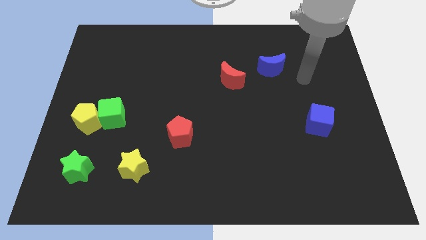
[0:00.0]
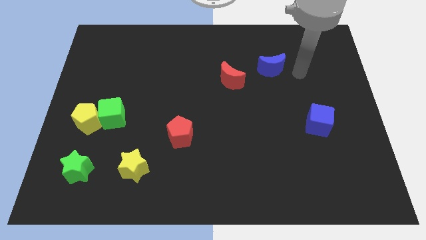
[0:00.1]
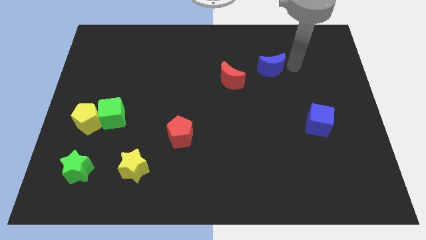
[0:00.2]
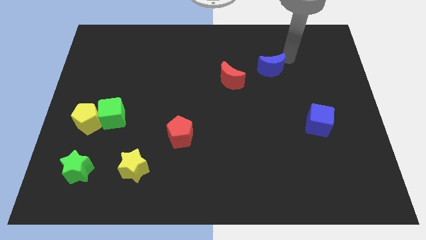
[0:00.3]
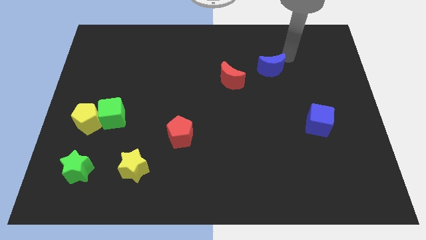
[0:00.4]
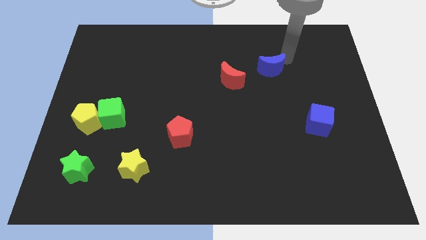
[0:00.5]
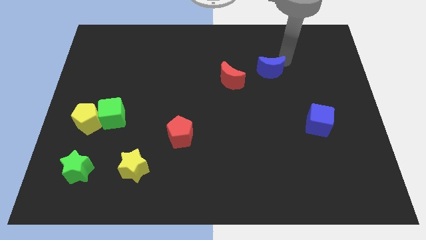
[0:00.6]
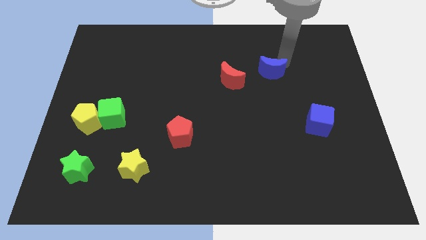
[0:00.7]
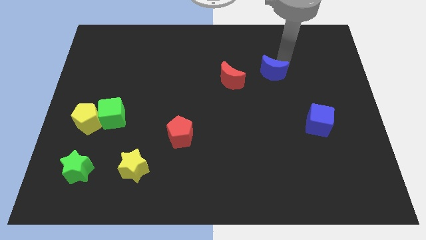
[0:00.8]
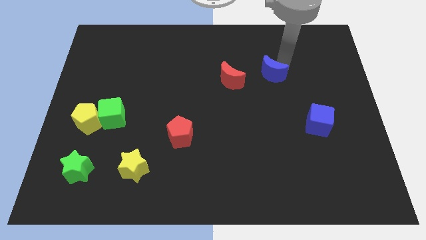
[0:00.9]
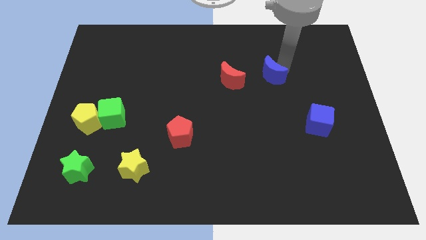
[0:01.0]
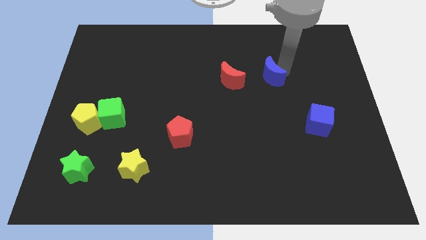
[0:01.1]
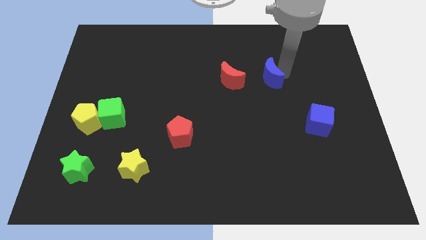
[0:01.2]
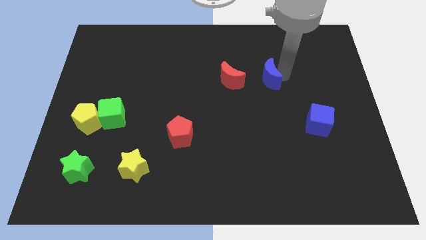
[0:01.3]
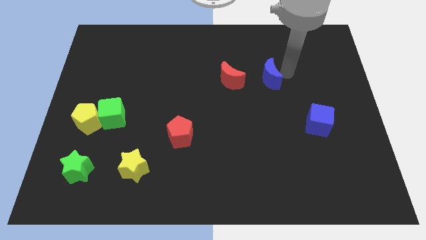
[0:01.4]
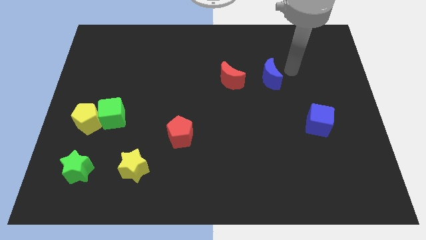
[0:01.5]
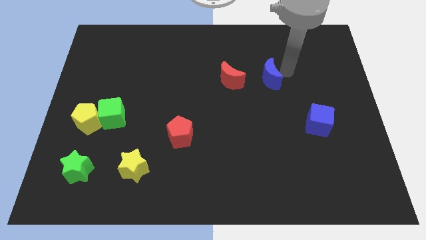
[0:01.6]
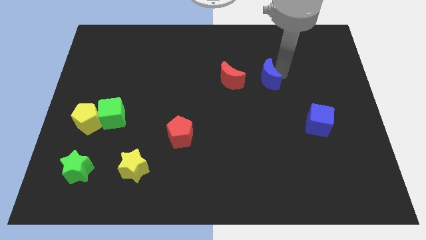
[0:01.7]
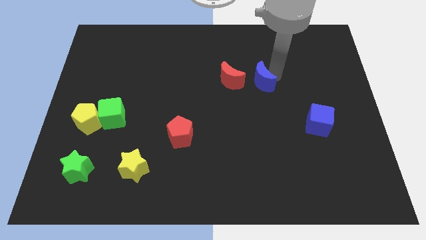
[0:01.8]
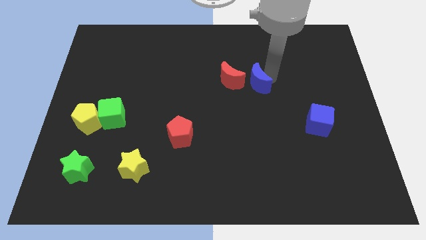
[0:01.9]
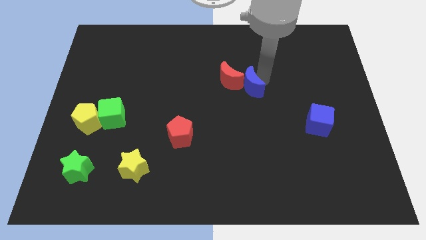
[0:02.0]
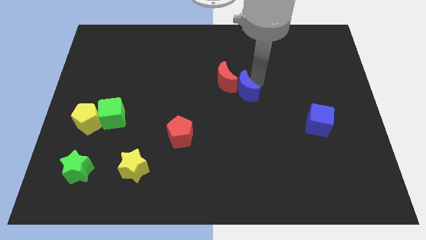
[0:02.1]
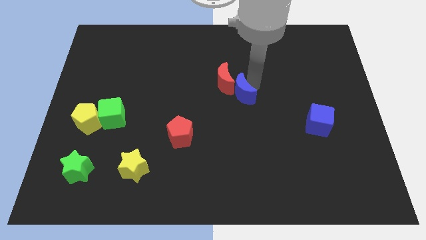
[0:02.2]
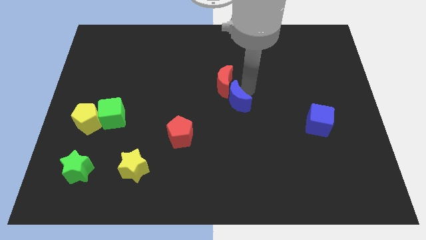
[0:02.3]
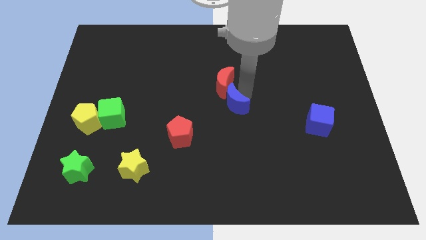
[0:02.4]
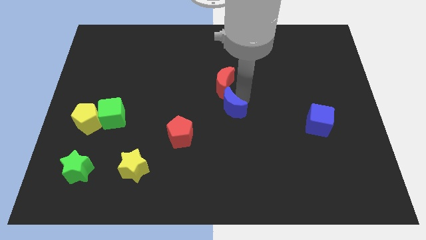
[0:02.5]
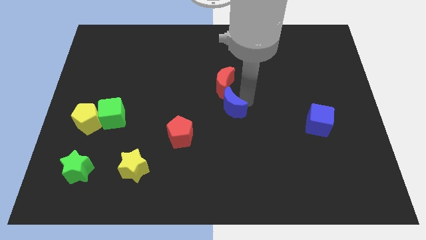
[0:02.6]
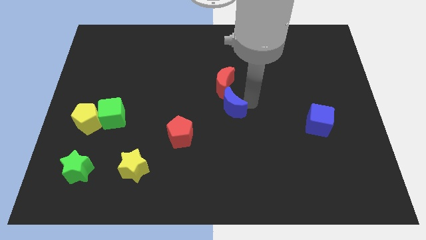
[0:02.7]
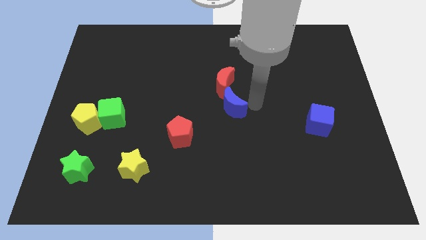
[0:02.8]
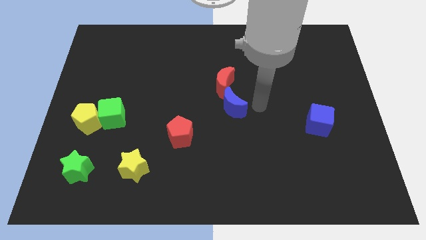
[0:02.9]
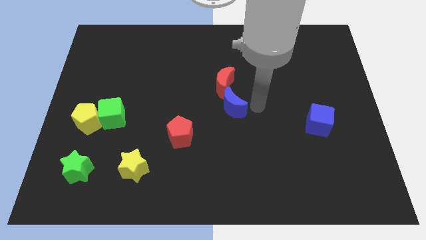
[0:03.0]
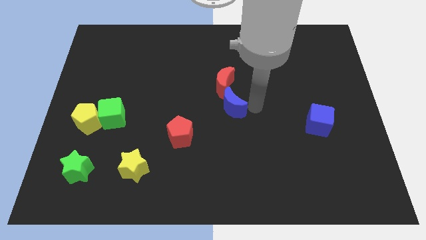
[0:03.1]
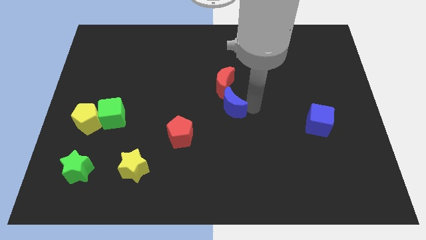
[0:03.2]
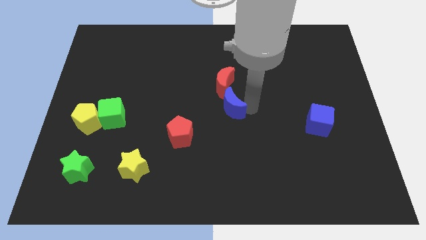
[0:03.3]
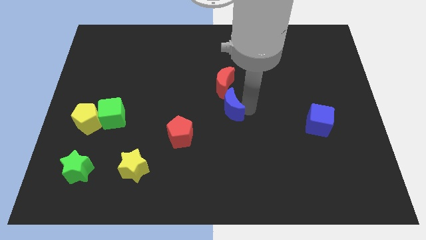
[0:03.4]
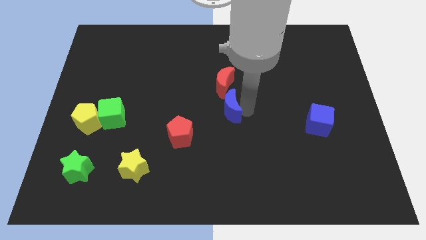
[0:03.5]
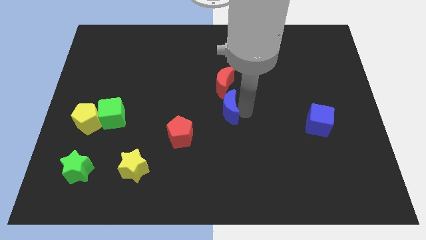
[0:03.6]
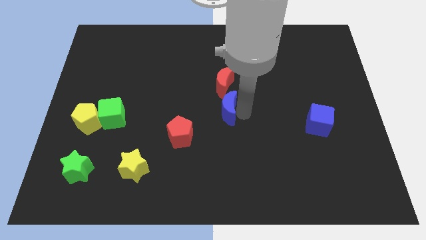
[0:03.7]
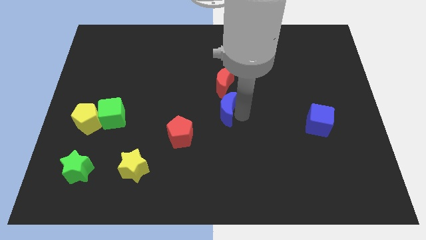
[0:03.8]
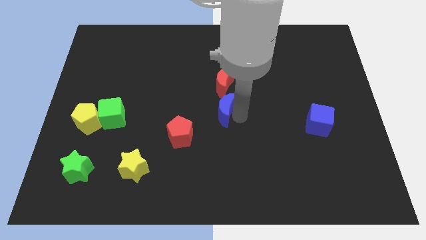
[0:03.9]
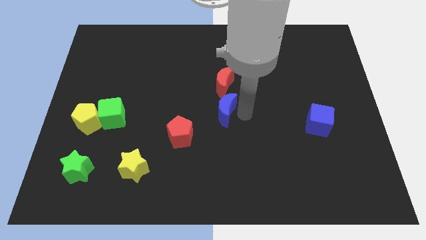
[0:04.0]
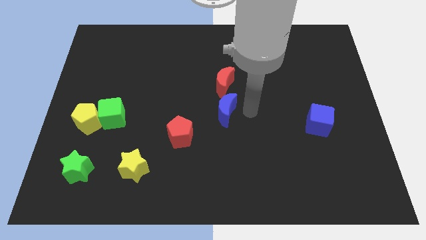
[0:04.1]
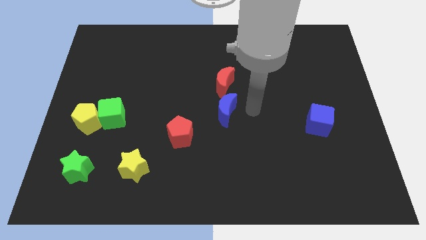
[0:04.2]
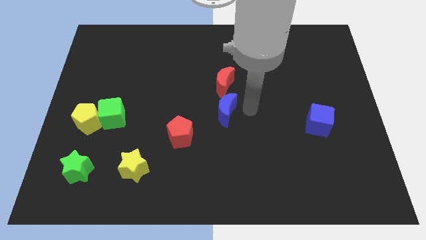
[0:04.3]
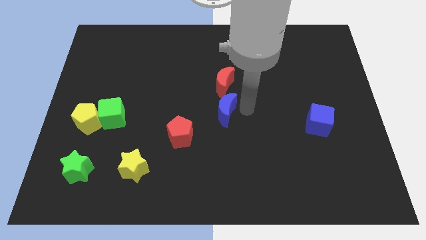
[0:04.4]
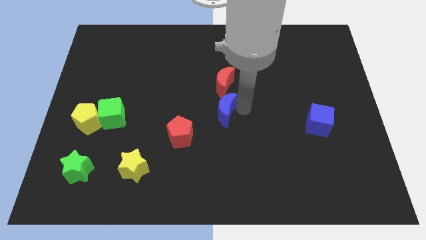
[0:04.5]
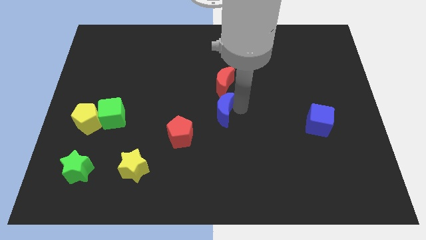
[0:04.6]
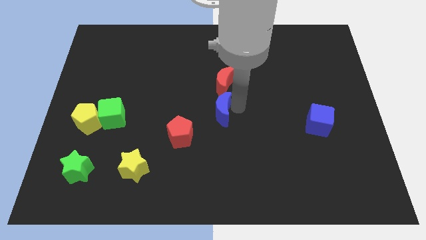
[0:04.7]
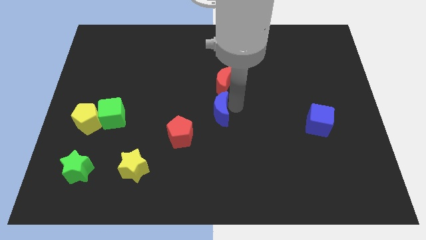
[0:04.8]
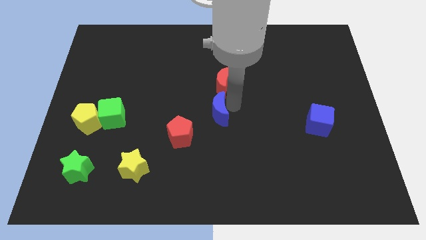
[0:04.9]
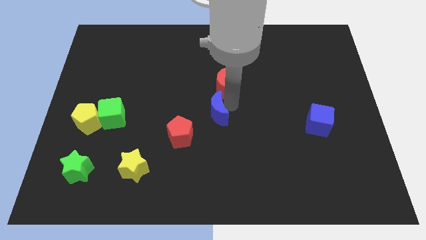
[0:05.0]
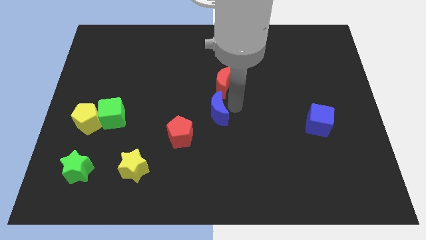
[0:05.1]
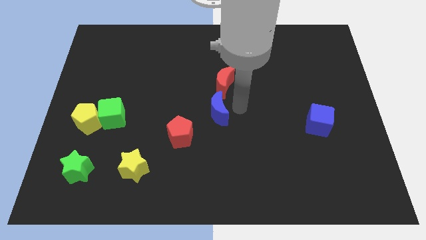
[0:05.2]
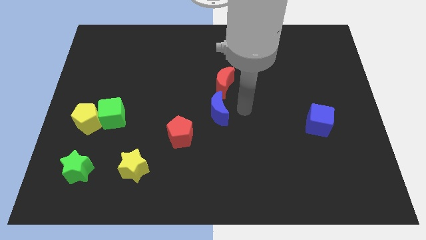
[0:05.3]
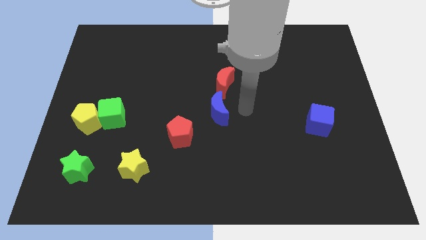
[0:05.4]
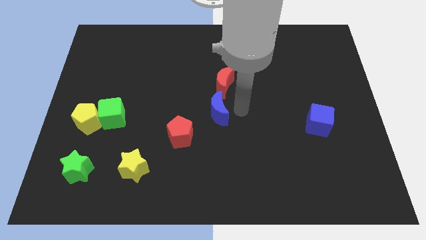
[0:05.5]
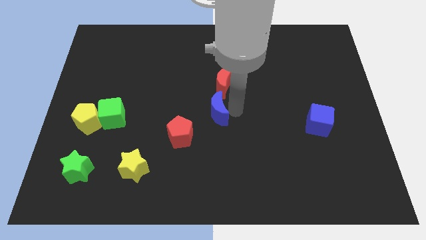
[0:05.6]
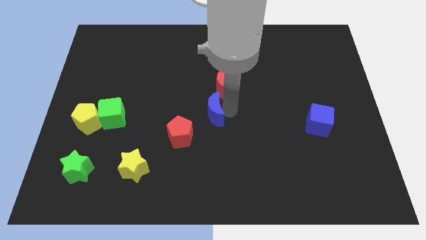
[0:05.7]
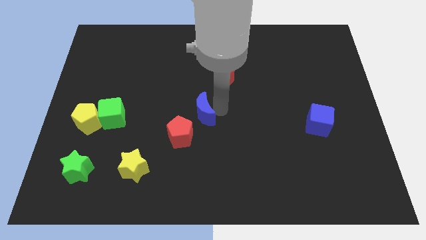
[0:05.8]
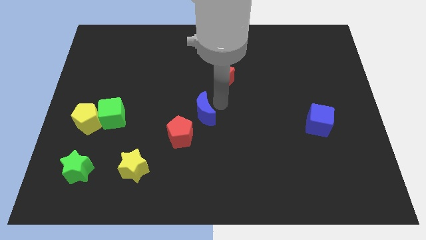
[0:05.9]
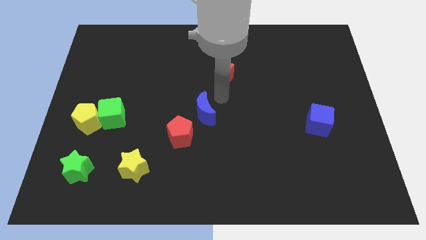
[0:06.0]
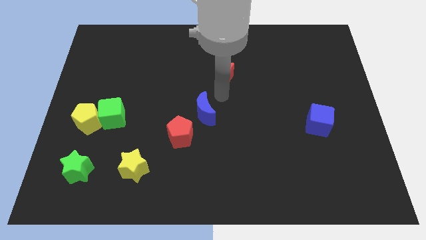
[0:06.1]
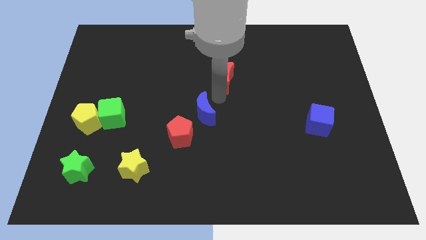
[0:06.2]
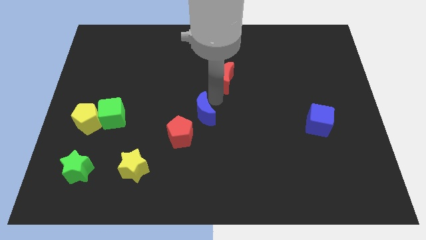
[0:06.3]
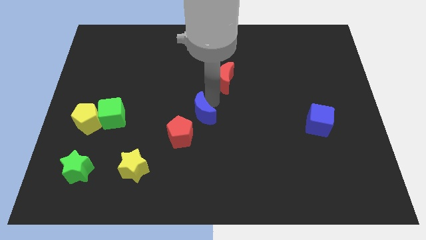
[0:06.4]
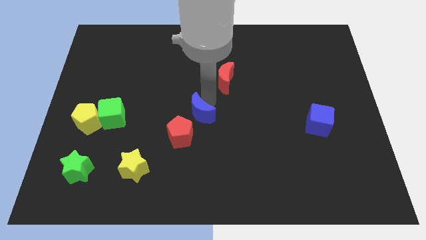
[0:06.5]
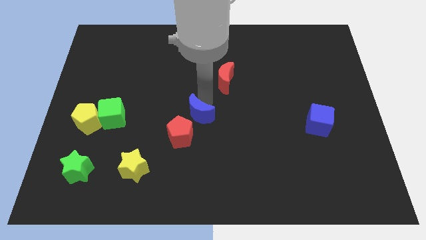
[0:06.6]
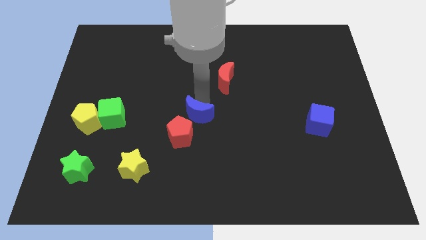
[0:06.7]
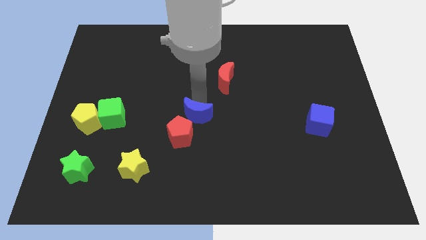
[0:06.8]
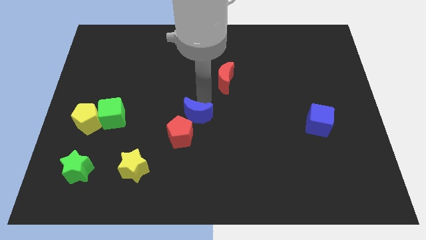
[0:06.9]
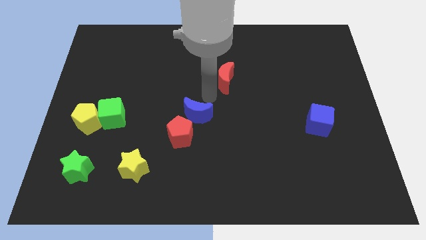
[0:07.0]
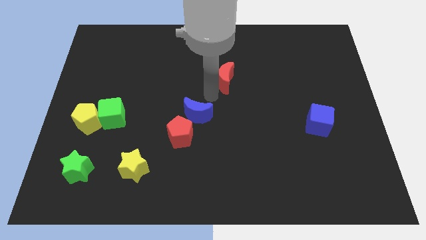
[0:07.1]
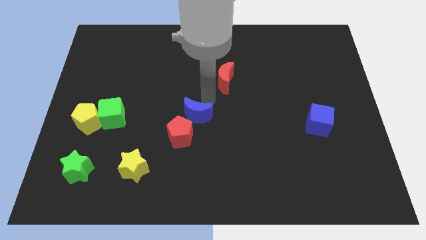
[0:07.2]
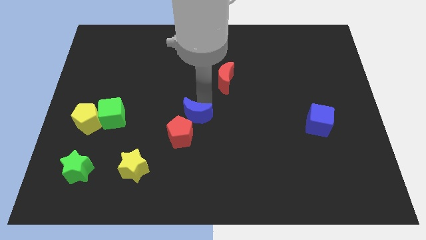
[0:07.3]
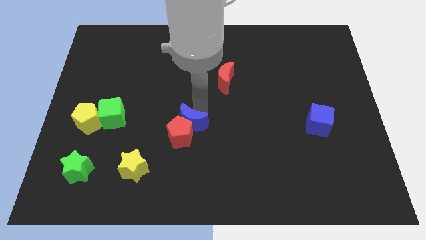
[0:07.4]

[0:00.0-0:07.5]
slide the blue moon towards the red pentagon
